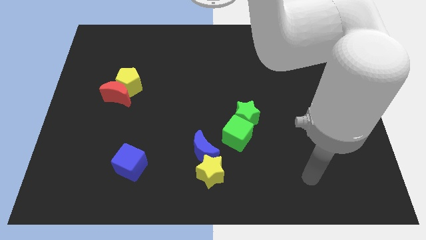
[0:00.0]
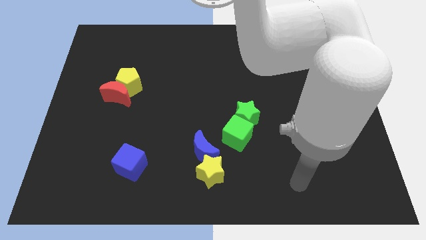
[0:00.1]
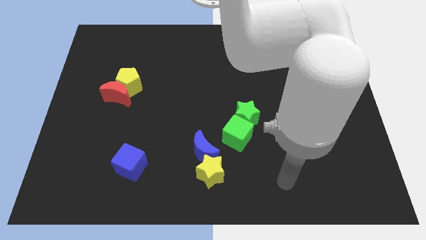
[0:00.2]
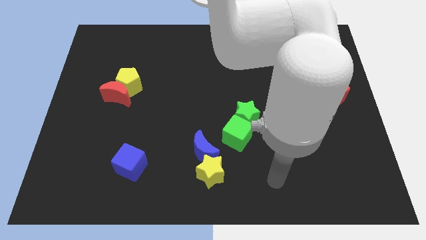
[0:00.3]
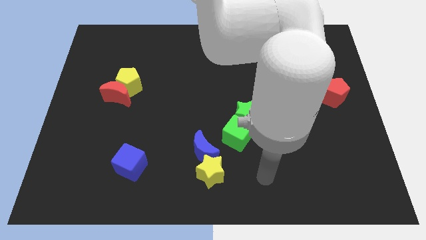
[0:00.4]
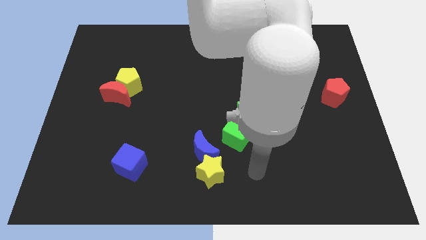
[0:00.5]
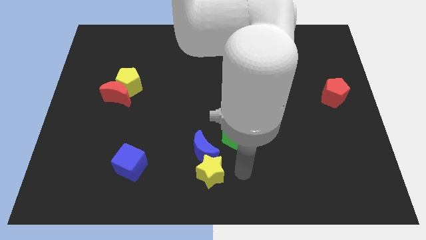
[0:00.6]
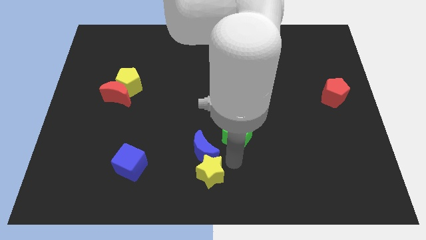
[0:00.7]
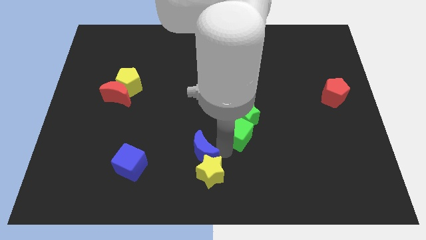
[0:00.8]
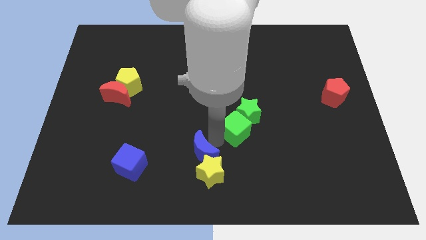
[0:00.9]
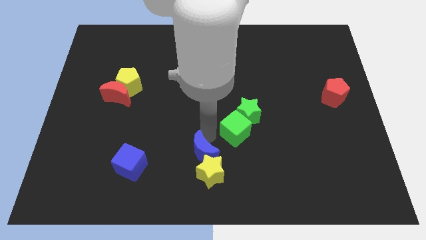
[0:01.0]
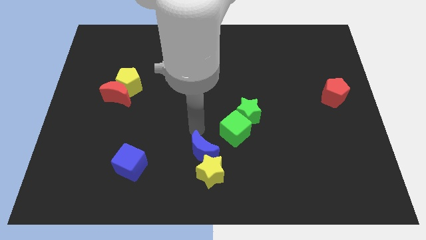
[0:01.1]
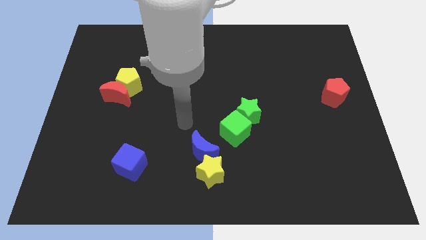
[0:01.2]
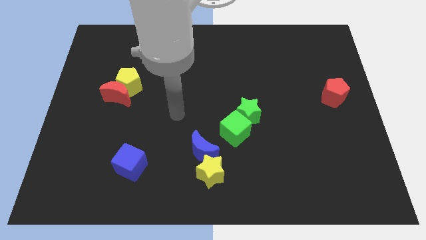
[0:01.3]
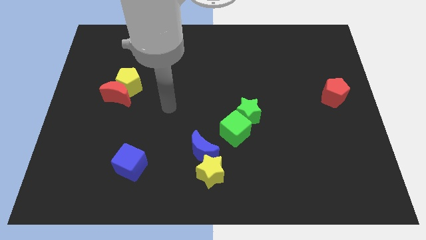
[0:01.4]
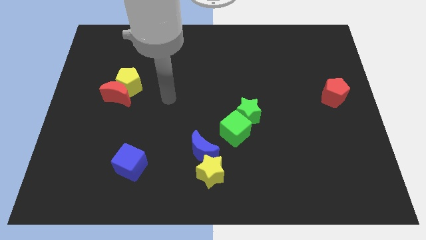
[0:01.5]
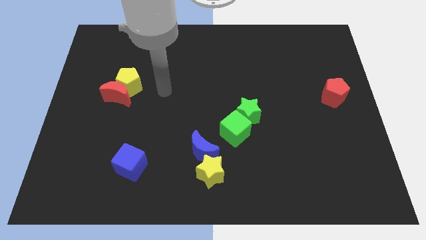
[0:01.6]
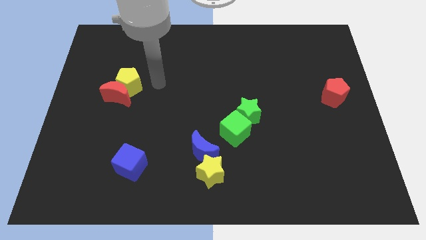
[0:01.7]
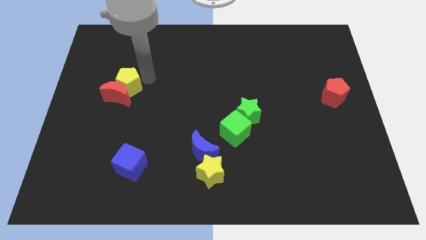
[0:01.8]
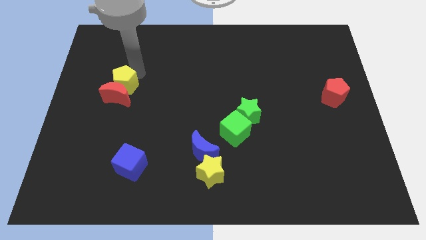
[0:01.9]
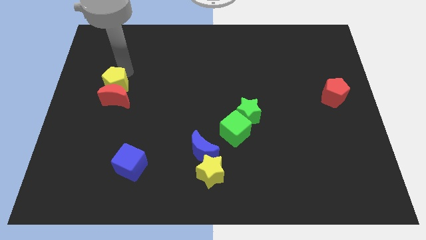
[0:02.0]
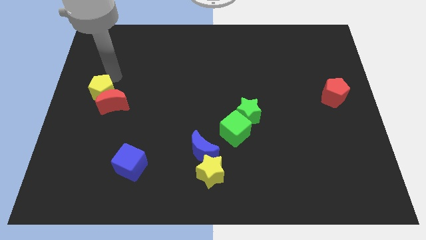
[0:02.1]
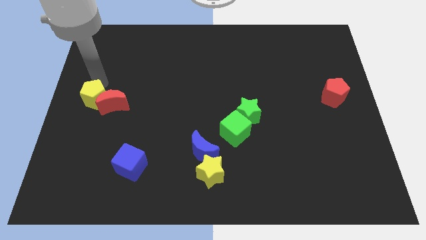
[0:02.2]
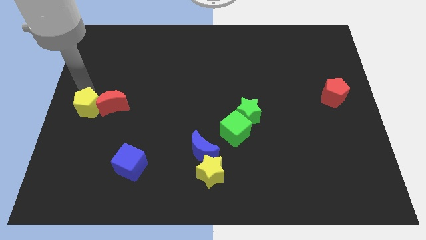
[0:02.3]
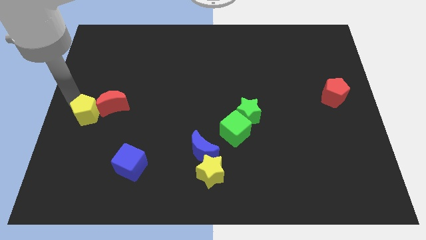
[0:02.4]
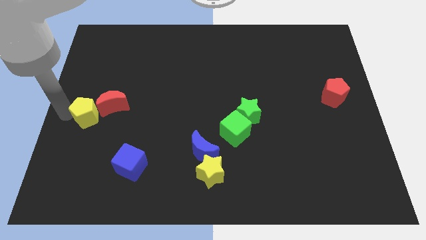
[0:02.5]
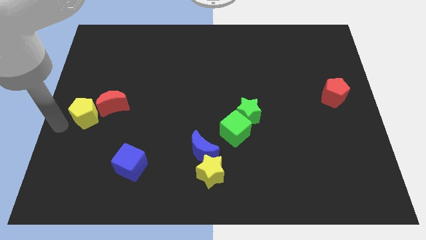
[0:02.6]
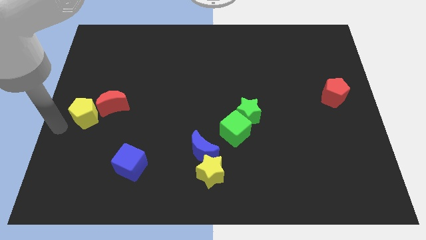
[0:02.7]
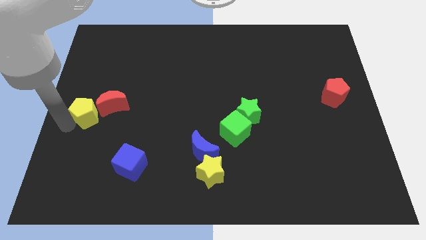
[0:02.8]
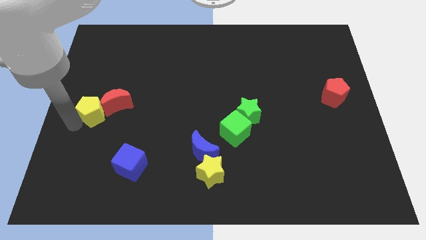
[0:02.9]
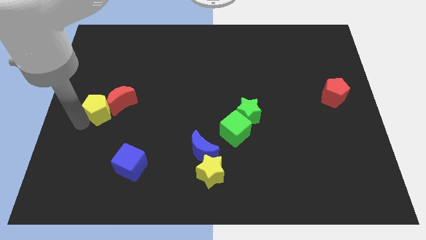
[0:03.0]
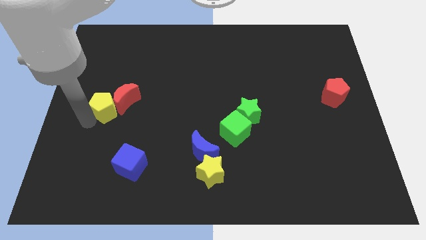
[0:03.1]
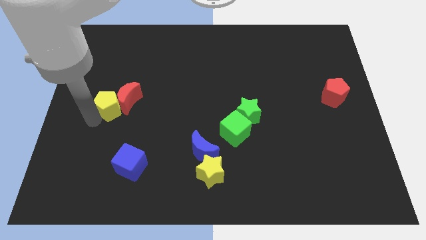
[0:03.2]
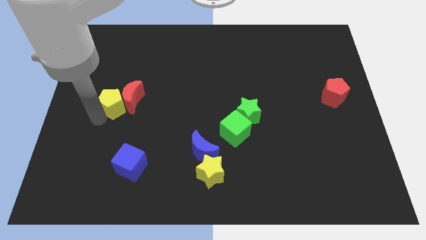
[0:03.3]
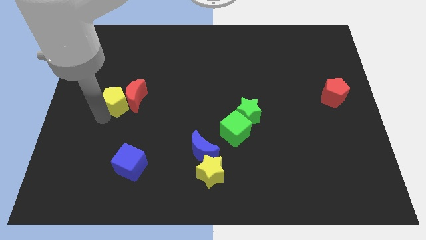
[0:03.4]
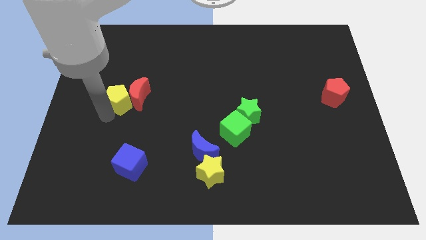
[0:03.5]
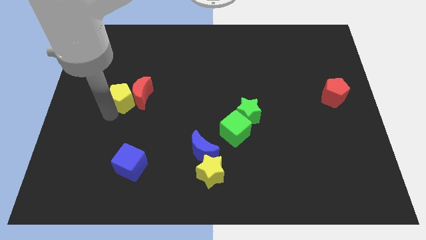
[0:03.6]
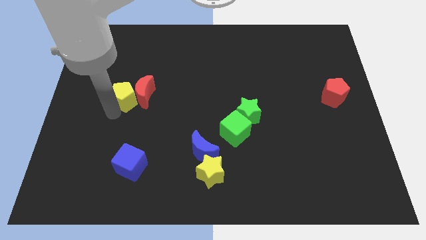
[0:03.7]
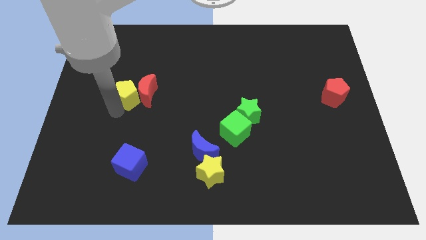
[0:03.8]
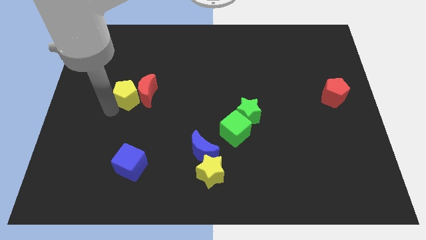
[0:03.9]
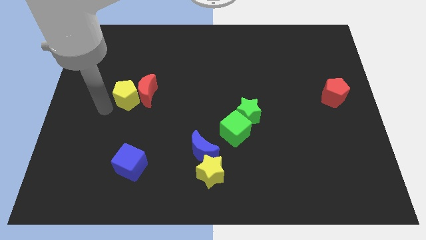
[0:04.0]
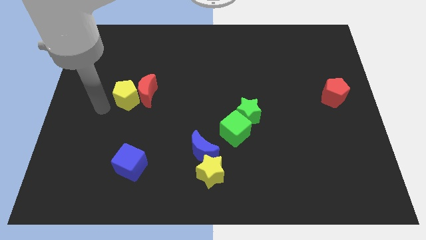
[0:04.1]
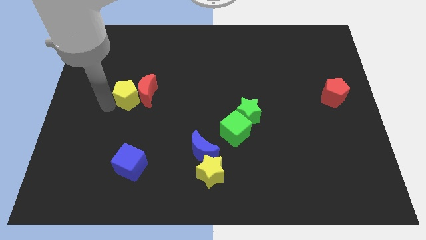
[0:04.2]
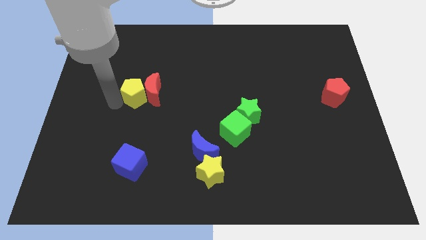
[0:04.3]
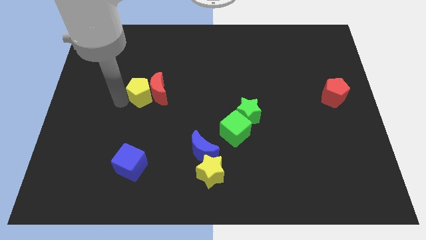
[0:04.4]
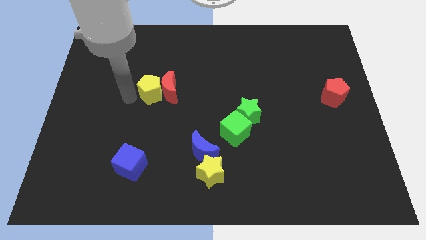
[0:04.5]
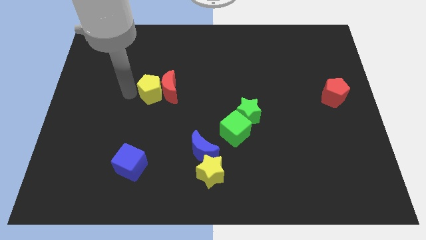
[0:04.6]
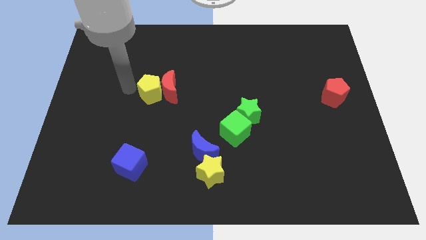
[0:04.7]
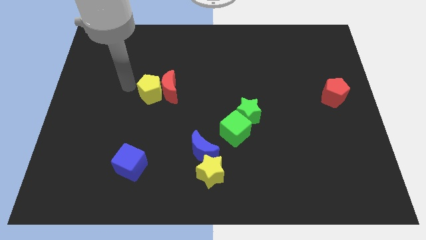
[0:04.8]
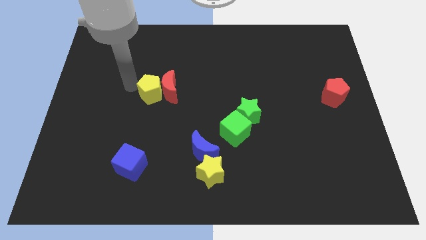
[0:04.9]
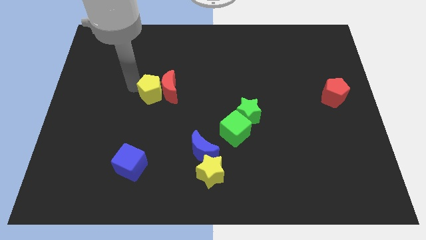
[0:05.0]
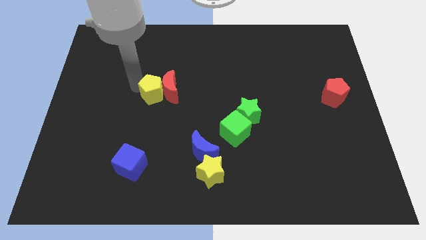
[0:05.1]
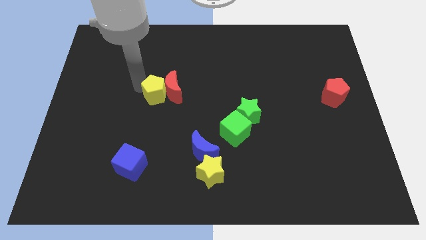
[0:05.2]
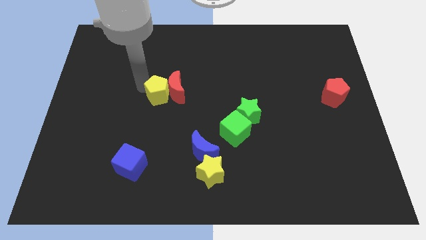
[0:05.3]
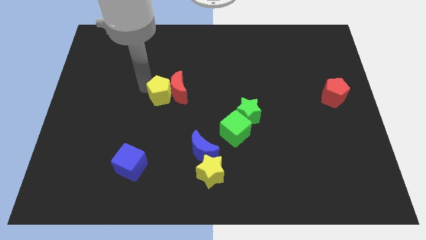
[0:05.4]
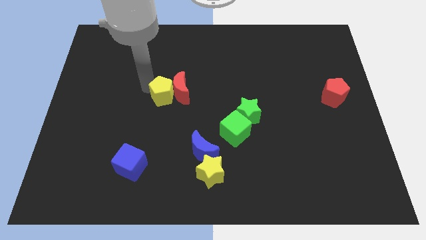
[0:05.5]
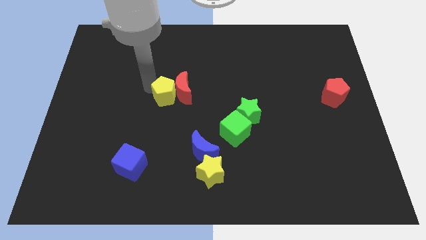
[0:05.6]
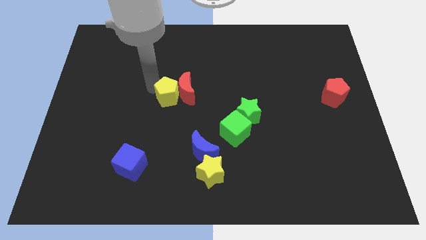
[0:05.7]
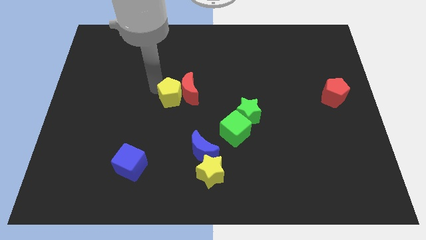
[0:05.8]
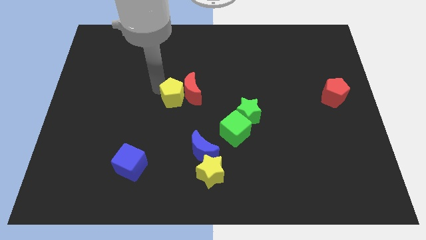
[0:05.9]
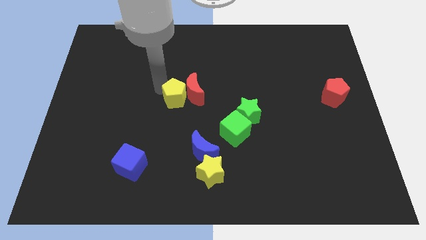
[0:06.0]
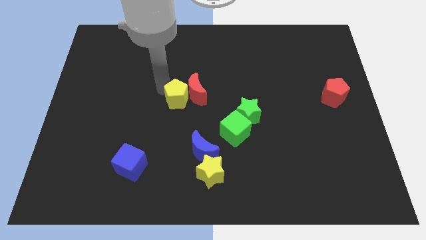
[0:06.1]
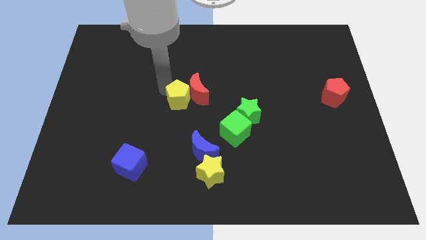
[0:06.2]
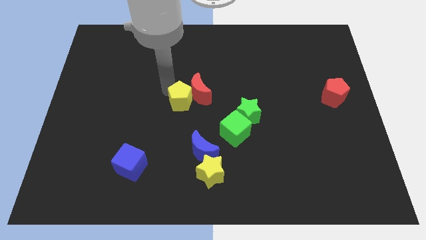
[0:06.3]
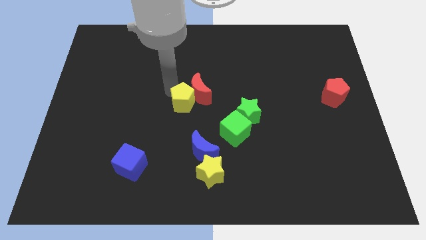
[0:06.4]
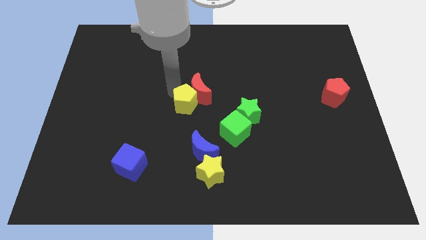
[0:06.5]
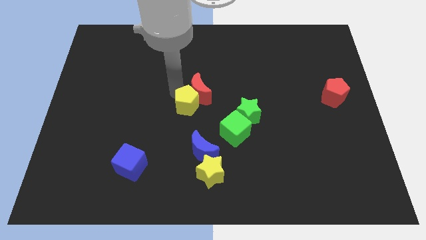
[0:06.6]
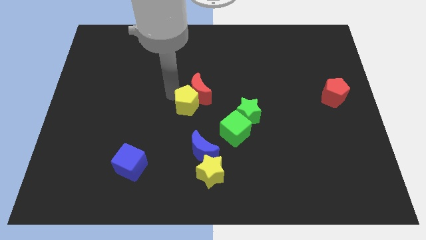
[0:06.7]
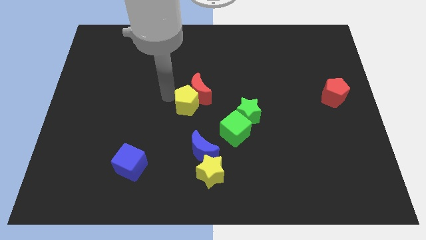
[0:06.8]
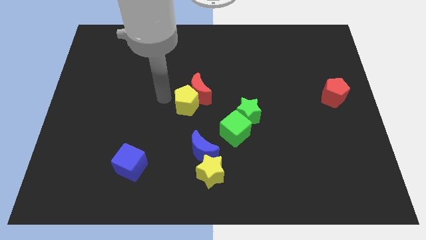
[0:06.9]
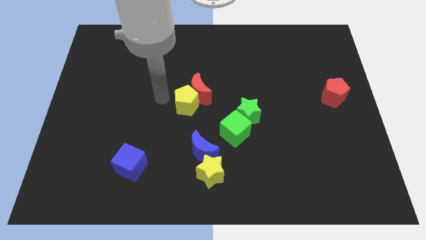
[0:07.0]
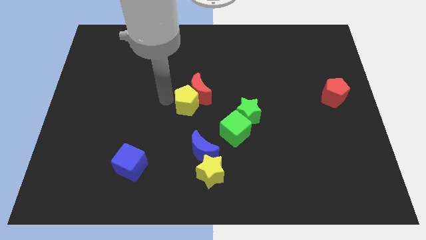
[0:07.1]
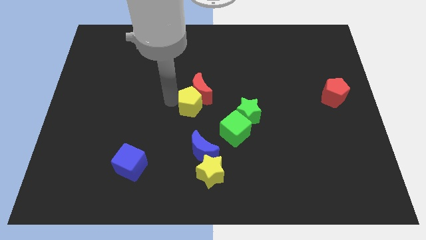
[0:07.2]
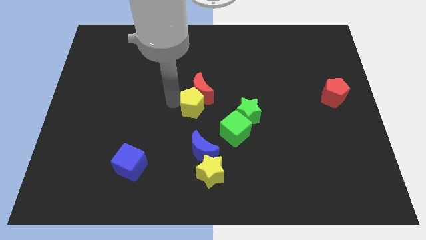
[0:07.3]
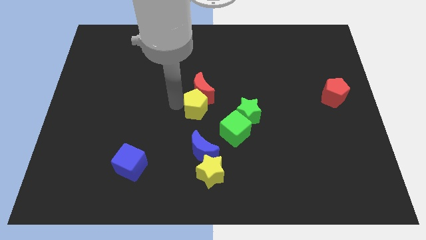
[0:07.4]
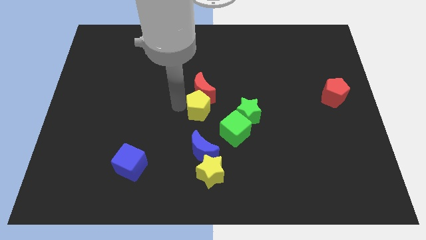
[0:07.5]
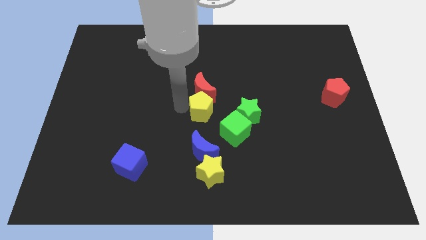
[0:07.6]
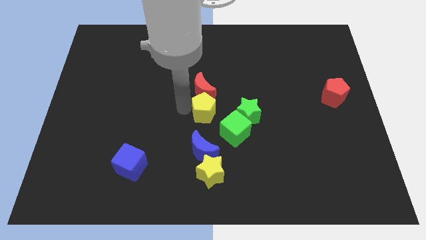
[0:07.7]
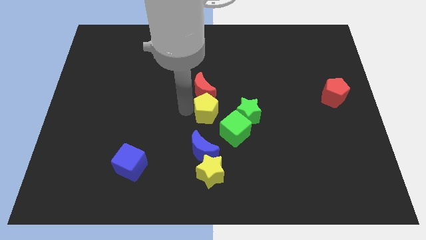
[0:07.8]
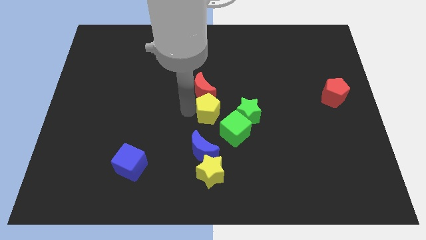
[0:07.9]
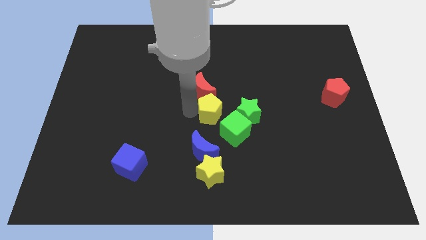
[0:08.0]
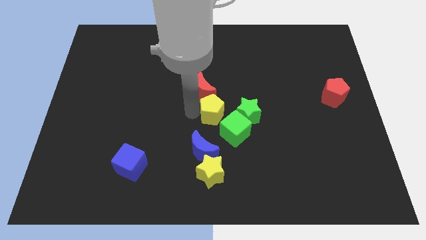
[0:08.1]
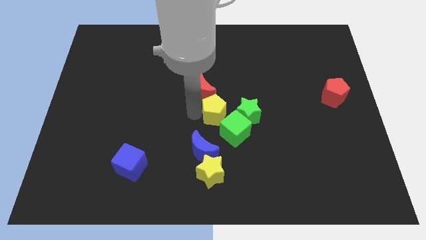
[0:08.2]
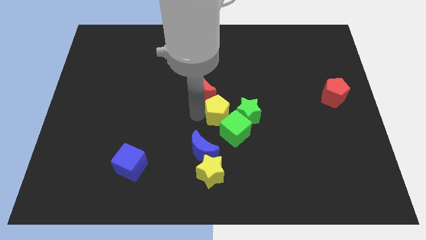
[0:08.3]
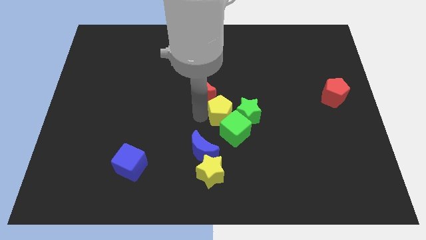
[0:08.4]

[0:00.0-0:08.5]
push the yellow pentagon close to the green star
